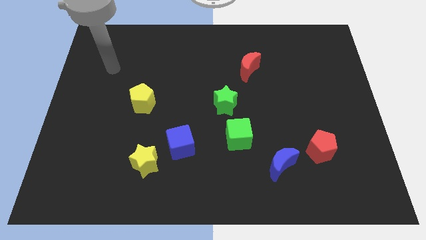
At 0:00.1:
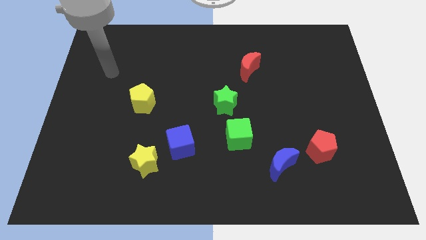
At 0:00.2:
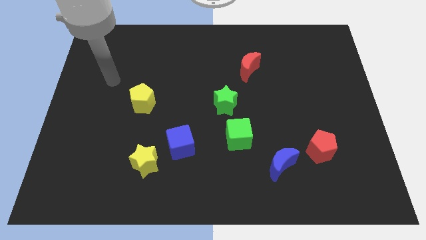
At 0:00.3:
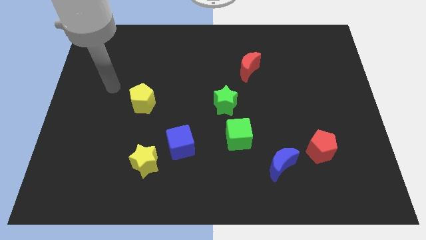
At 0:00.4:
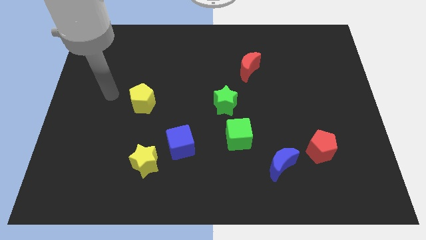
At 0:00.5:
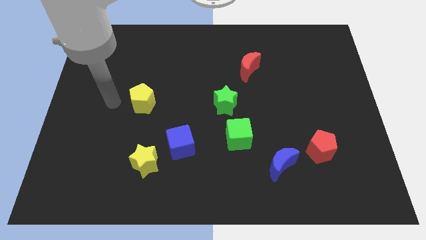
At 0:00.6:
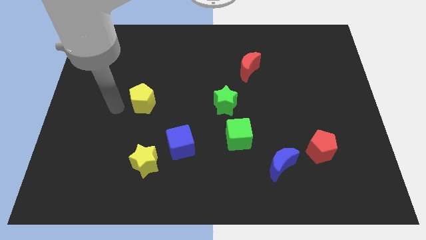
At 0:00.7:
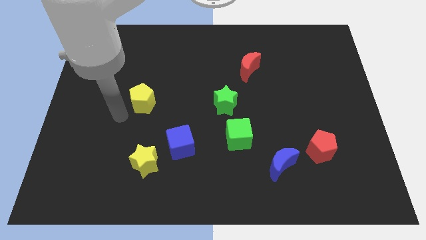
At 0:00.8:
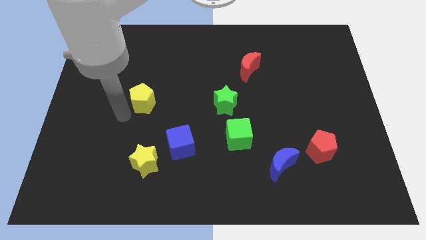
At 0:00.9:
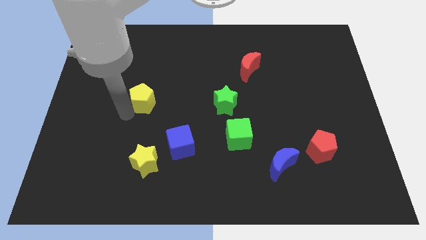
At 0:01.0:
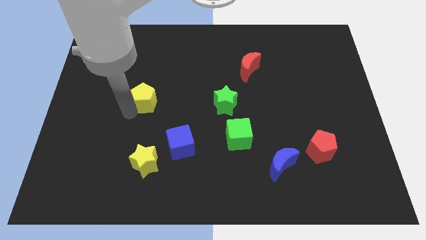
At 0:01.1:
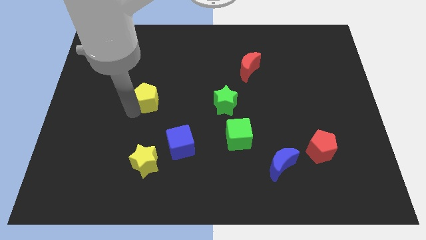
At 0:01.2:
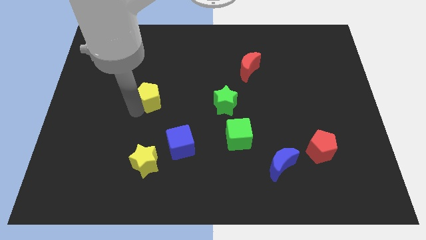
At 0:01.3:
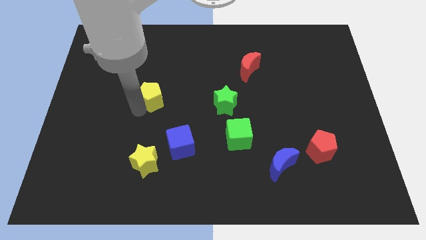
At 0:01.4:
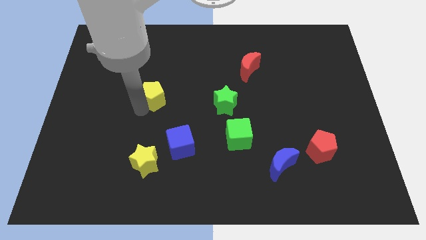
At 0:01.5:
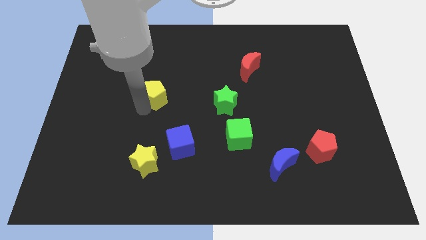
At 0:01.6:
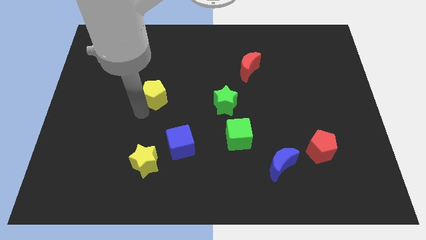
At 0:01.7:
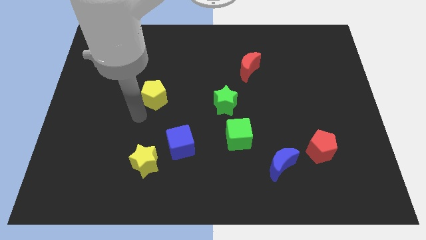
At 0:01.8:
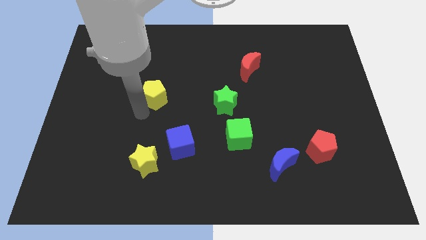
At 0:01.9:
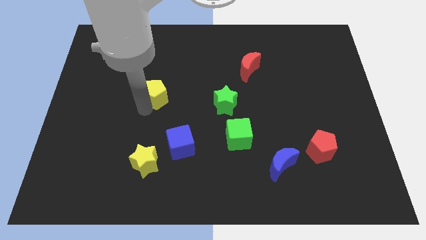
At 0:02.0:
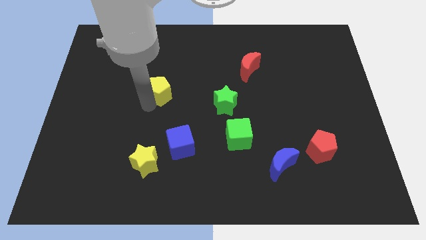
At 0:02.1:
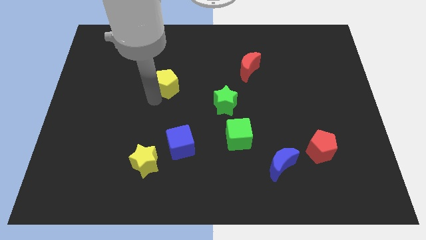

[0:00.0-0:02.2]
slightly move the yellow pentagon up and right

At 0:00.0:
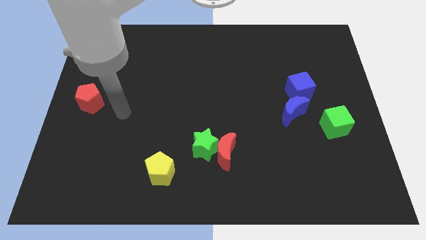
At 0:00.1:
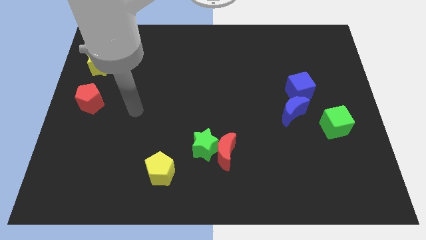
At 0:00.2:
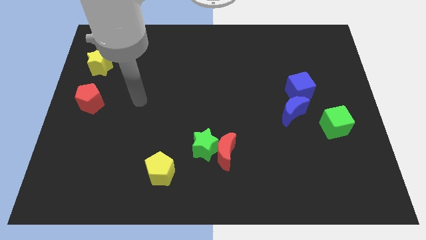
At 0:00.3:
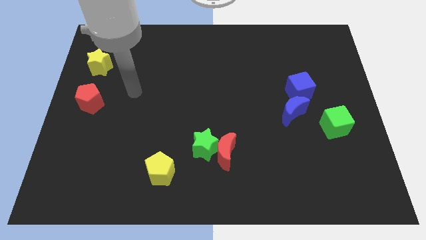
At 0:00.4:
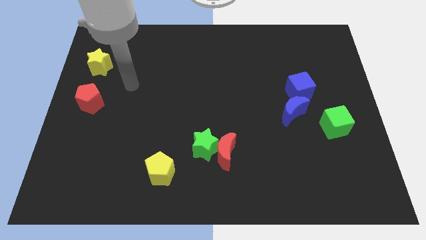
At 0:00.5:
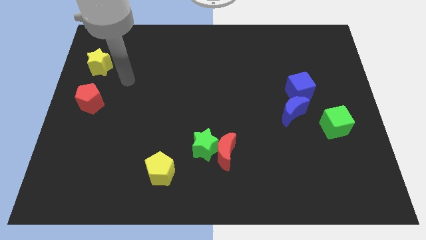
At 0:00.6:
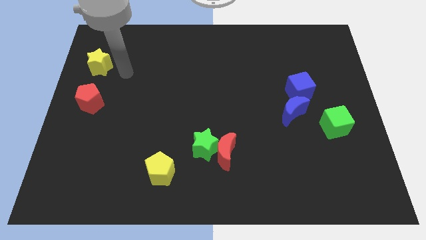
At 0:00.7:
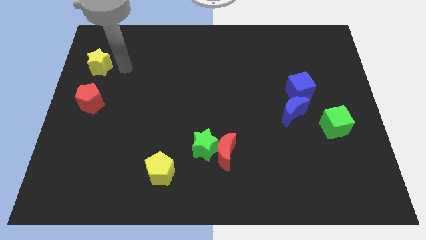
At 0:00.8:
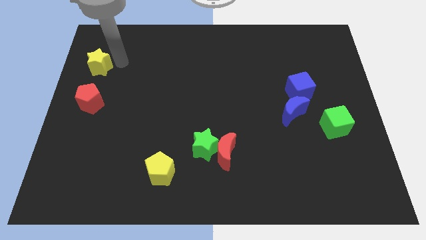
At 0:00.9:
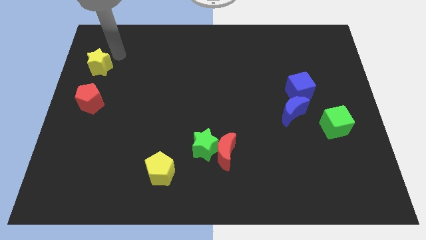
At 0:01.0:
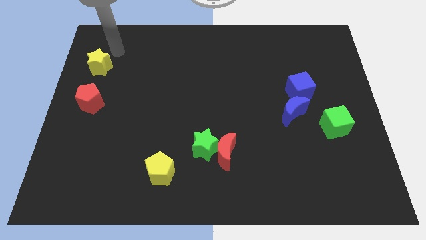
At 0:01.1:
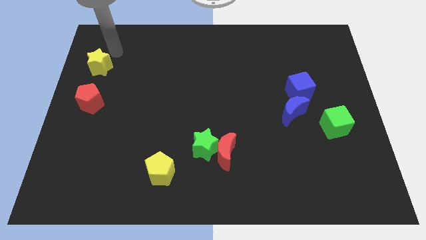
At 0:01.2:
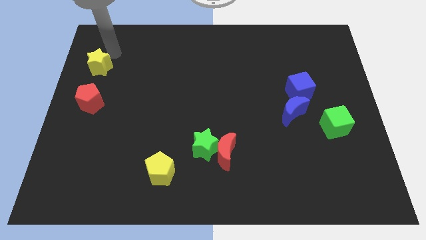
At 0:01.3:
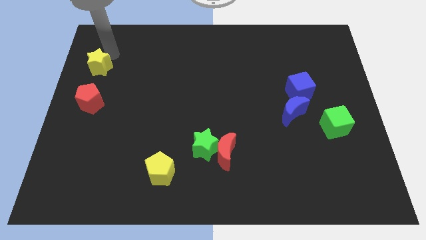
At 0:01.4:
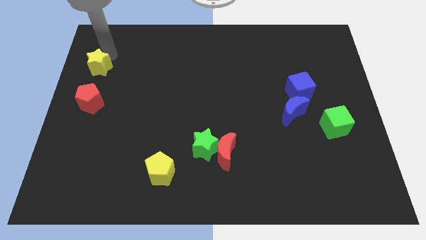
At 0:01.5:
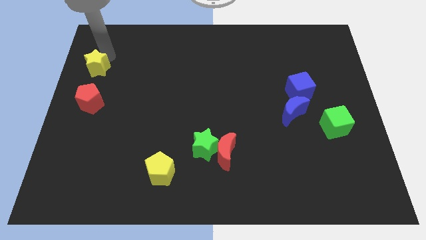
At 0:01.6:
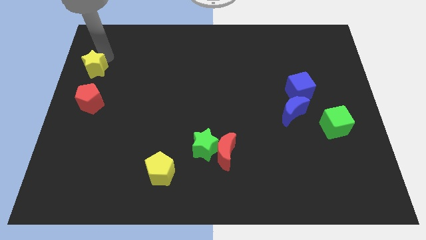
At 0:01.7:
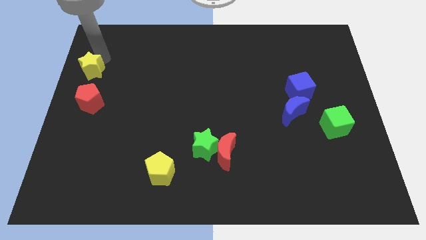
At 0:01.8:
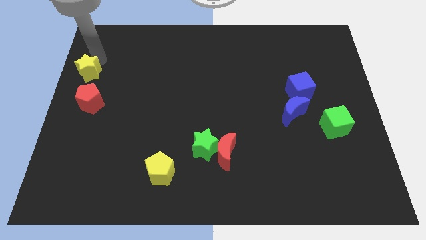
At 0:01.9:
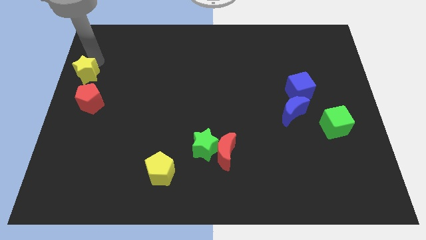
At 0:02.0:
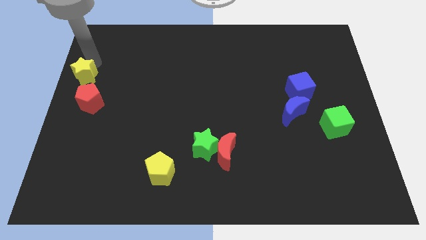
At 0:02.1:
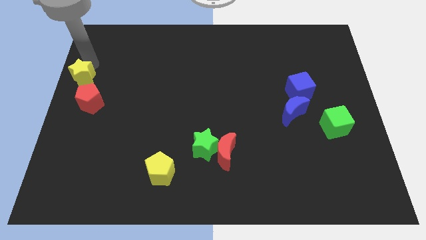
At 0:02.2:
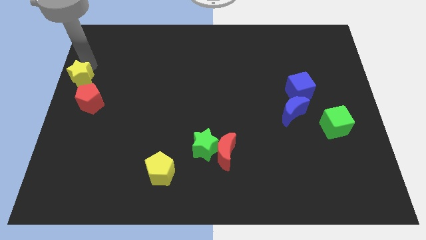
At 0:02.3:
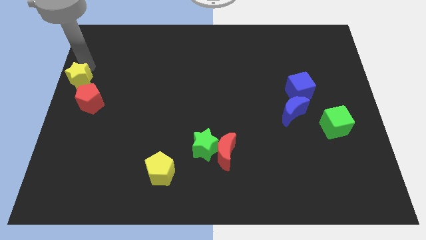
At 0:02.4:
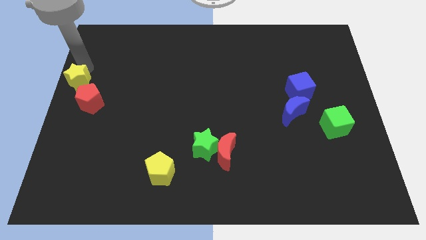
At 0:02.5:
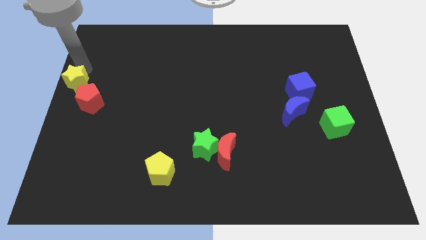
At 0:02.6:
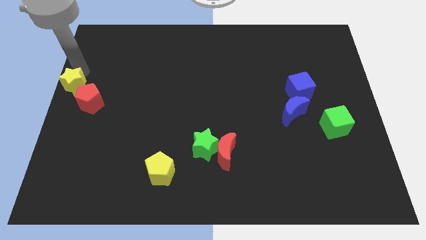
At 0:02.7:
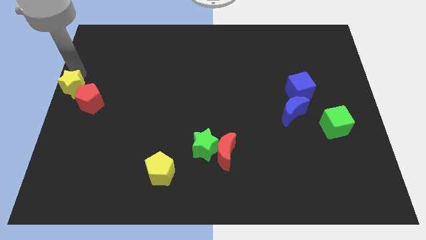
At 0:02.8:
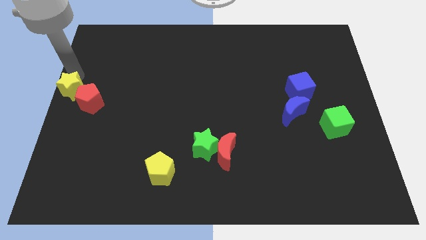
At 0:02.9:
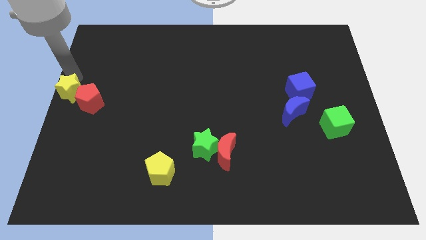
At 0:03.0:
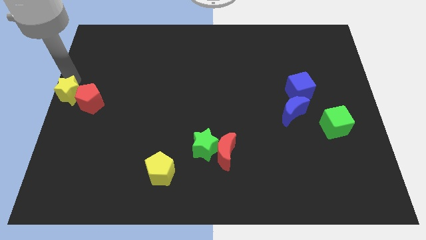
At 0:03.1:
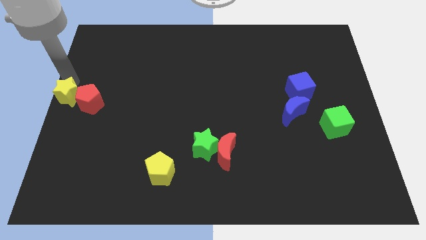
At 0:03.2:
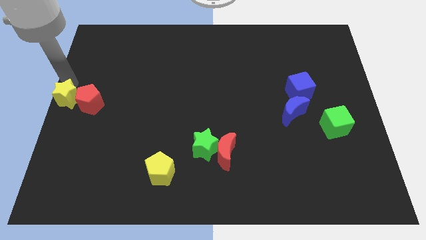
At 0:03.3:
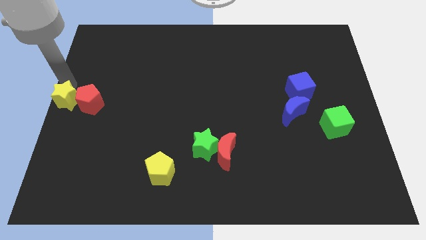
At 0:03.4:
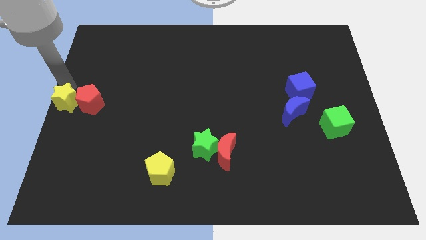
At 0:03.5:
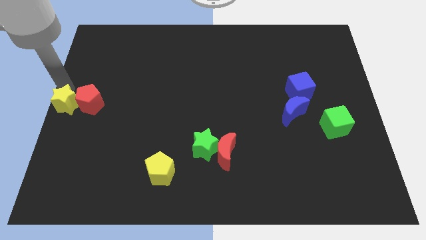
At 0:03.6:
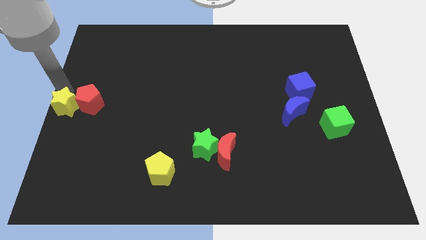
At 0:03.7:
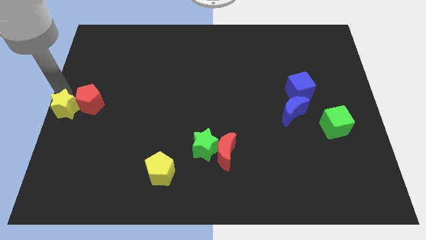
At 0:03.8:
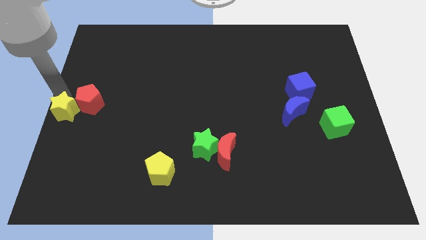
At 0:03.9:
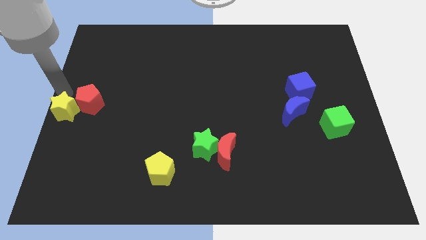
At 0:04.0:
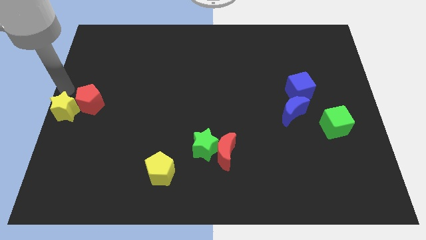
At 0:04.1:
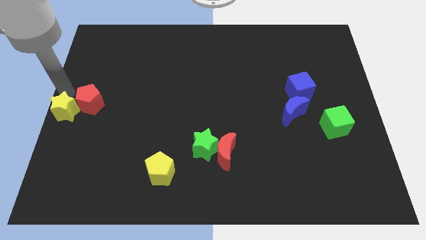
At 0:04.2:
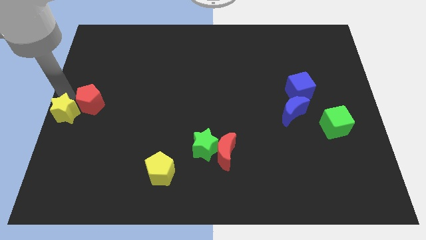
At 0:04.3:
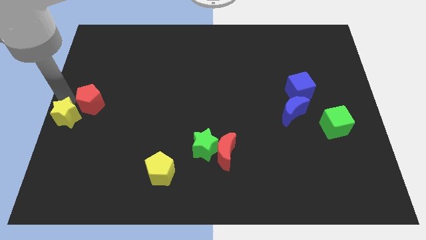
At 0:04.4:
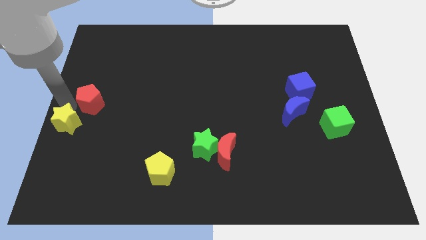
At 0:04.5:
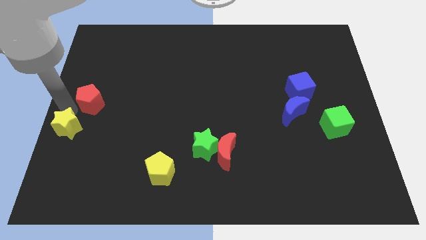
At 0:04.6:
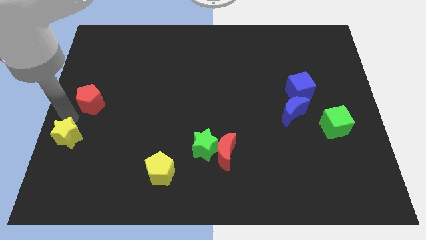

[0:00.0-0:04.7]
slide the yellow star downwards

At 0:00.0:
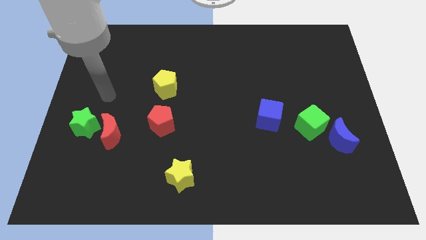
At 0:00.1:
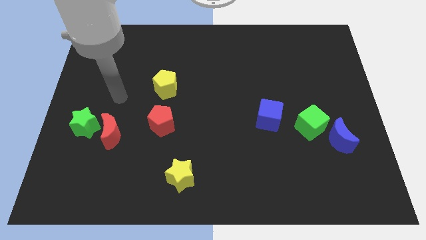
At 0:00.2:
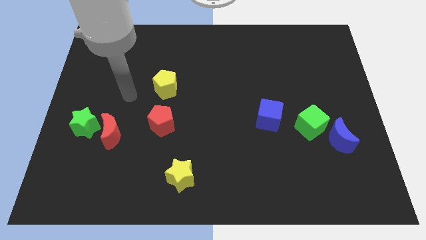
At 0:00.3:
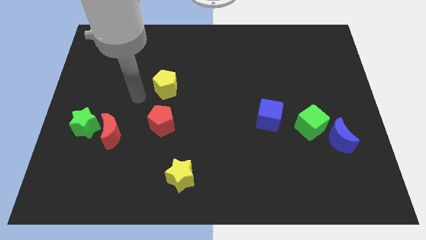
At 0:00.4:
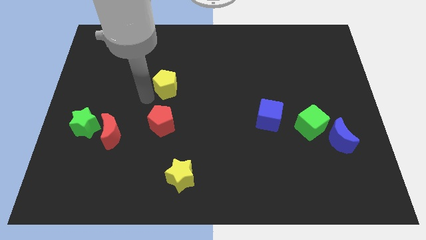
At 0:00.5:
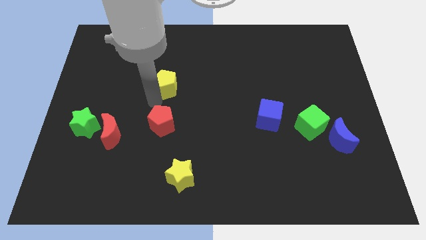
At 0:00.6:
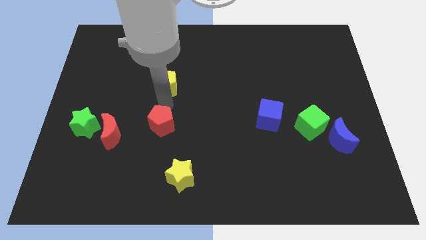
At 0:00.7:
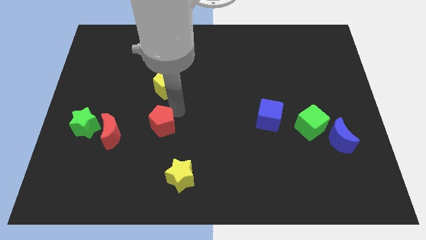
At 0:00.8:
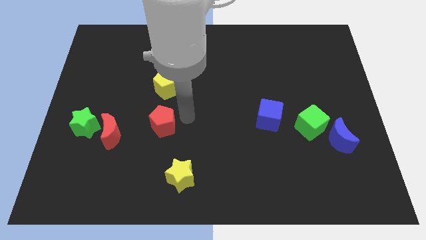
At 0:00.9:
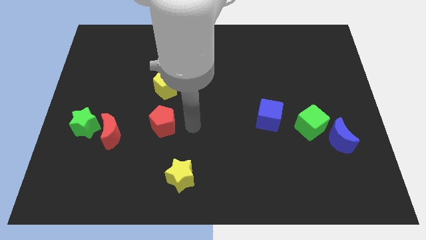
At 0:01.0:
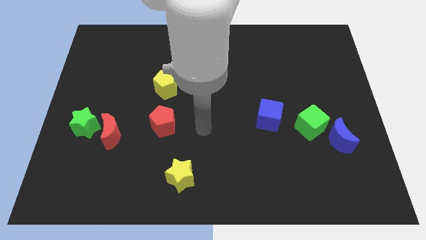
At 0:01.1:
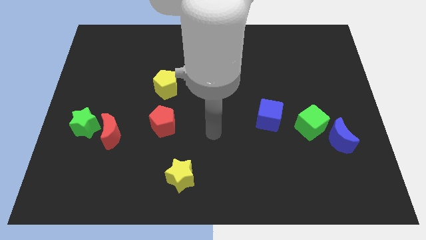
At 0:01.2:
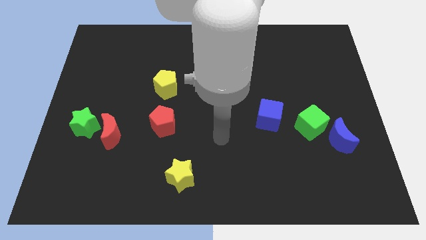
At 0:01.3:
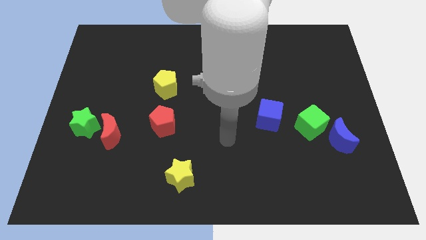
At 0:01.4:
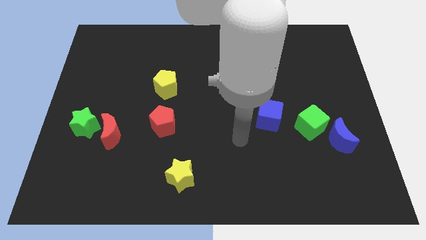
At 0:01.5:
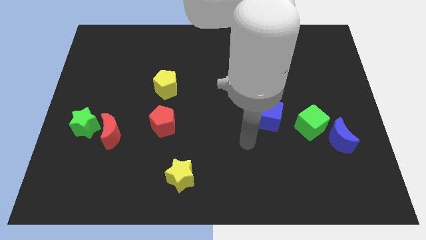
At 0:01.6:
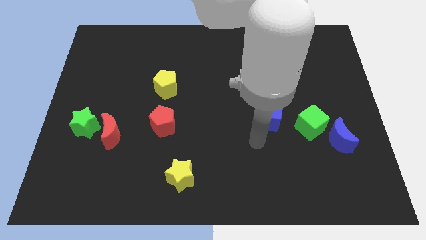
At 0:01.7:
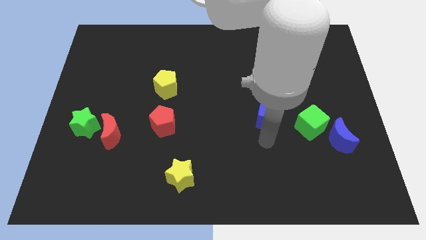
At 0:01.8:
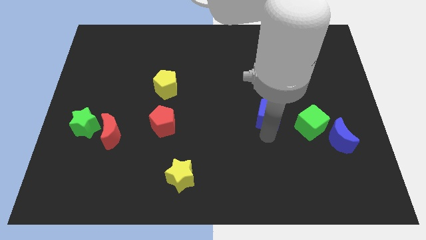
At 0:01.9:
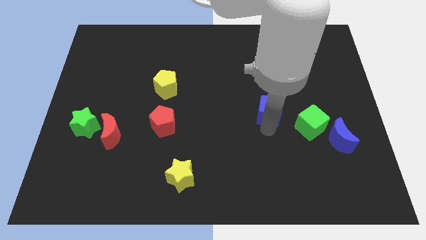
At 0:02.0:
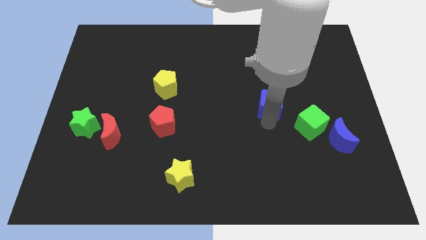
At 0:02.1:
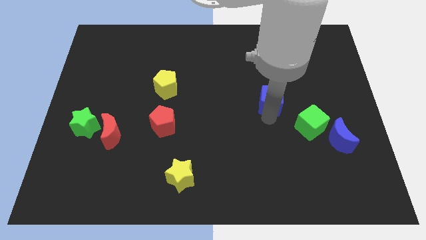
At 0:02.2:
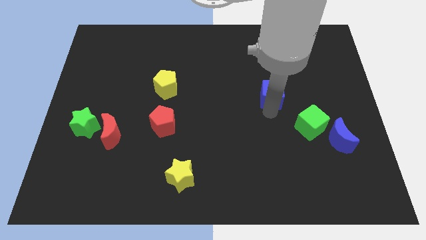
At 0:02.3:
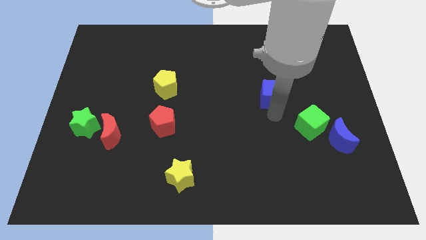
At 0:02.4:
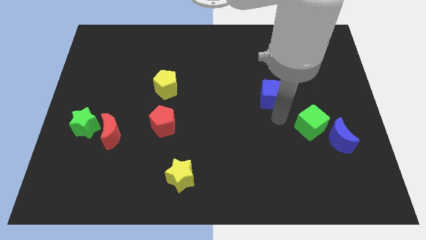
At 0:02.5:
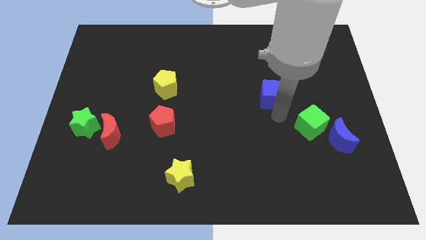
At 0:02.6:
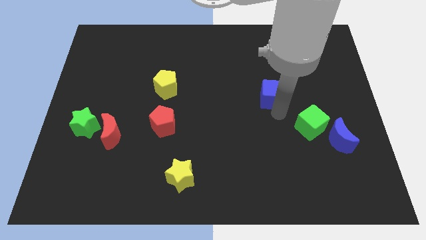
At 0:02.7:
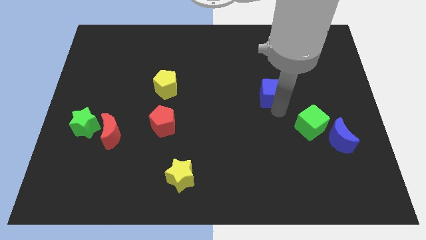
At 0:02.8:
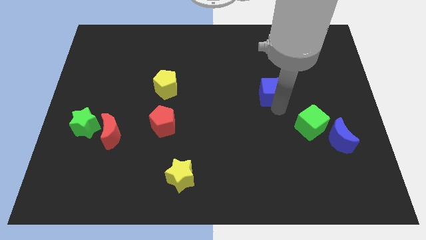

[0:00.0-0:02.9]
slightly move the blue cube up